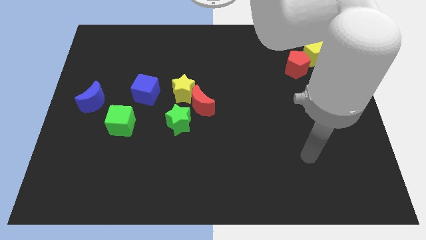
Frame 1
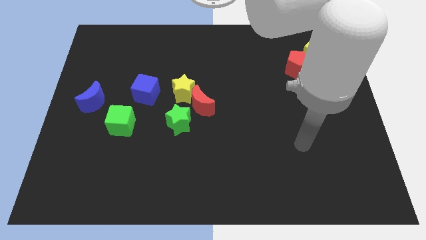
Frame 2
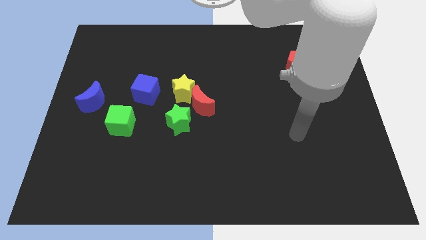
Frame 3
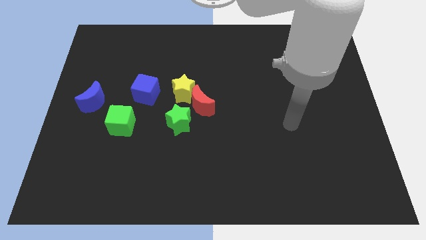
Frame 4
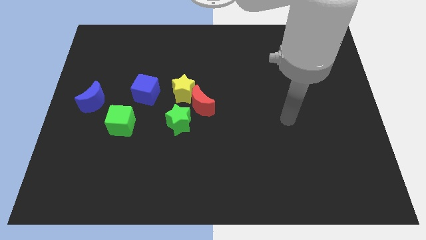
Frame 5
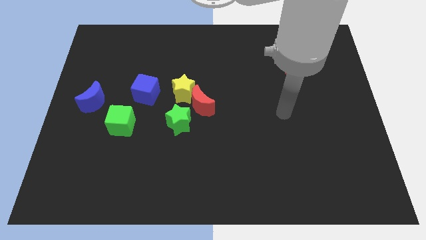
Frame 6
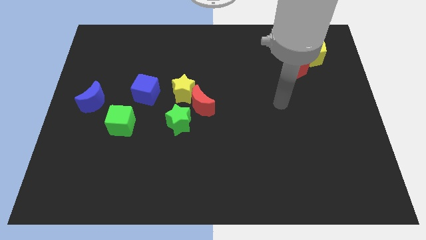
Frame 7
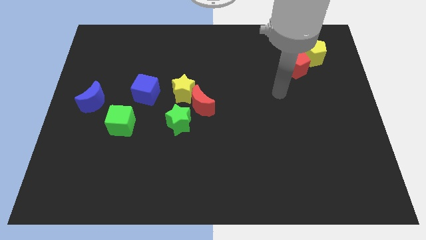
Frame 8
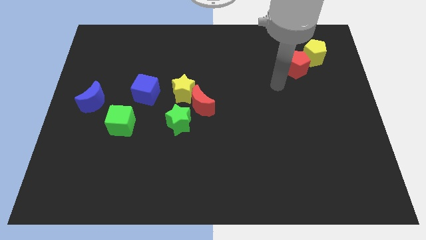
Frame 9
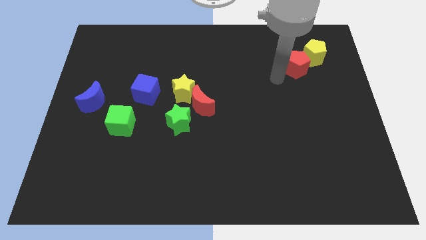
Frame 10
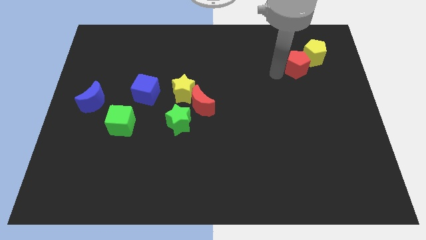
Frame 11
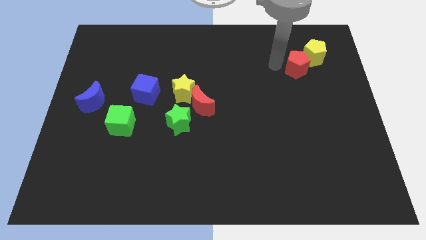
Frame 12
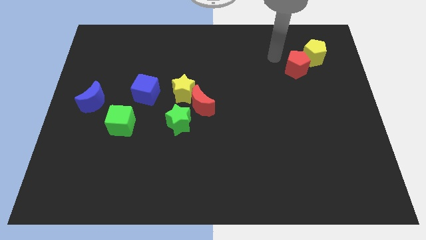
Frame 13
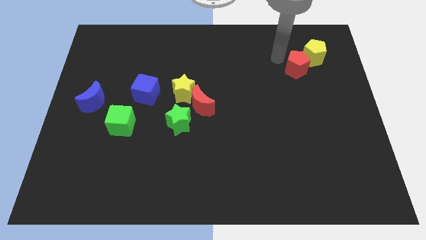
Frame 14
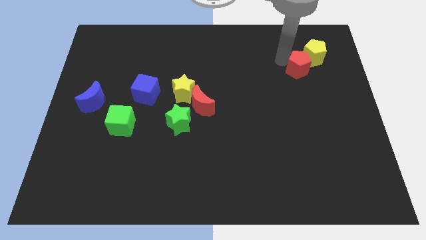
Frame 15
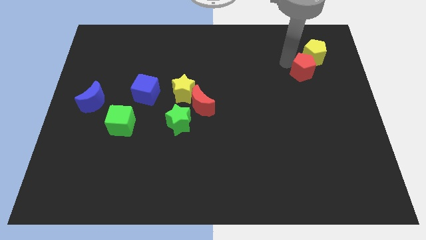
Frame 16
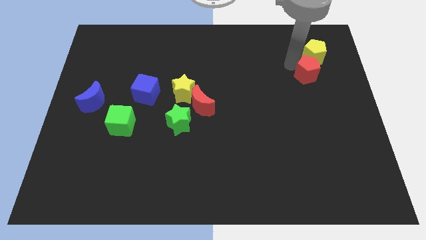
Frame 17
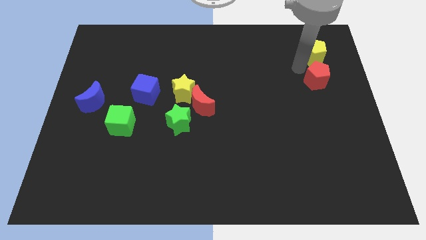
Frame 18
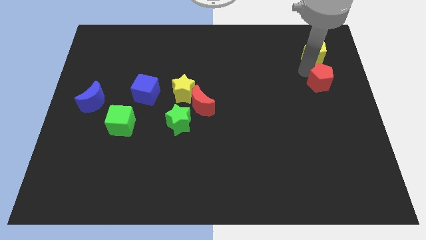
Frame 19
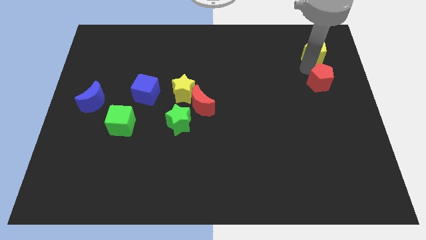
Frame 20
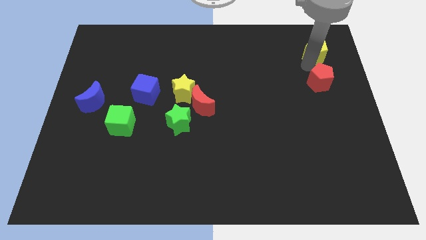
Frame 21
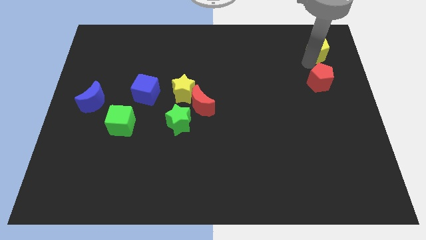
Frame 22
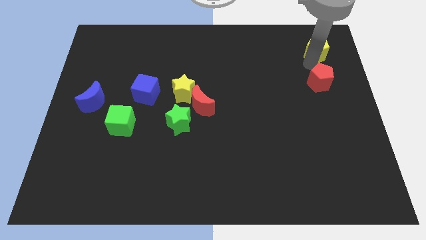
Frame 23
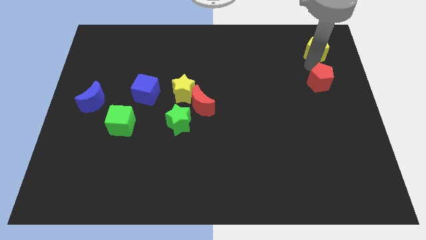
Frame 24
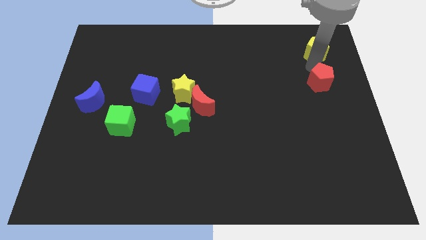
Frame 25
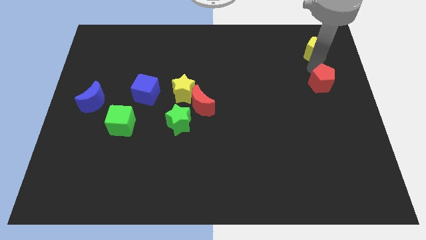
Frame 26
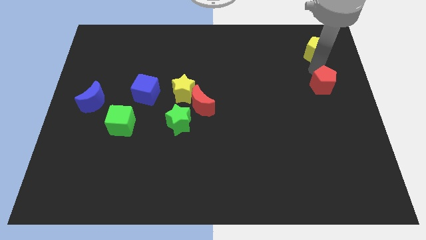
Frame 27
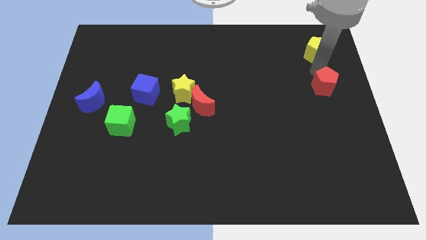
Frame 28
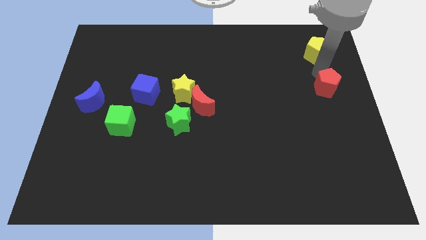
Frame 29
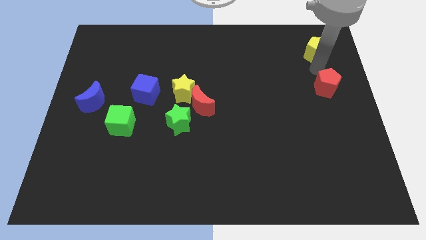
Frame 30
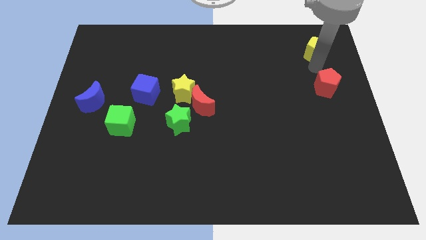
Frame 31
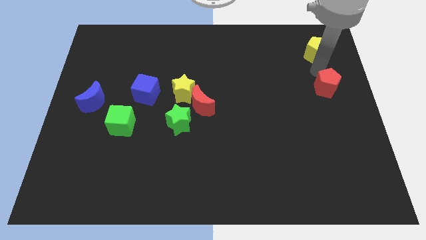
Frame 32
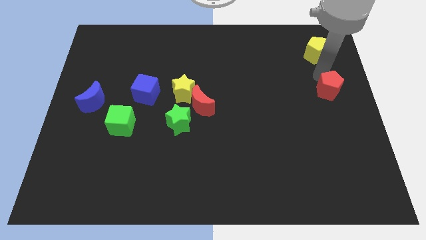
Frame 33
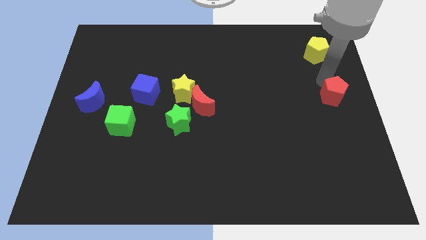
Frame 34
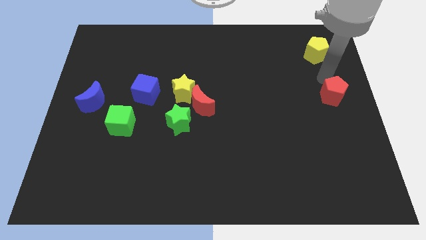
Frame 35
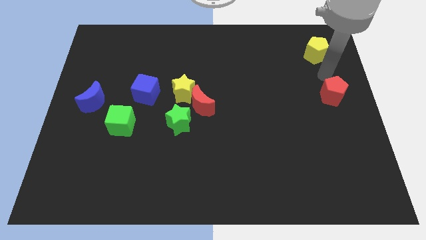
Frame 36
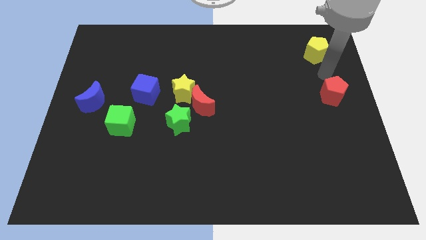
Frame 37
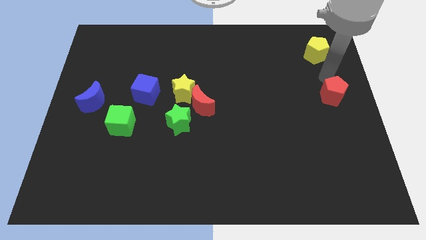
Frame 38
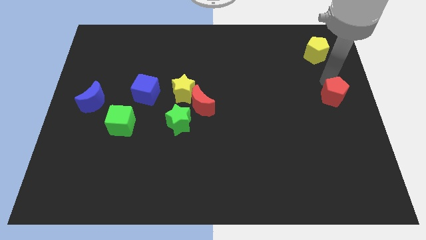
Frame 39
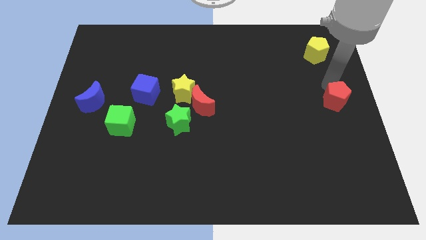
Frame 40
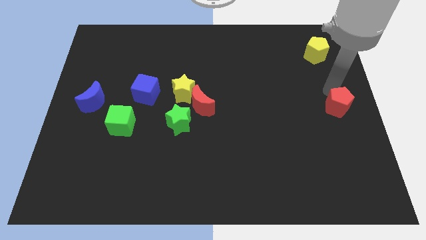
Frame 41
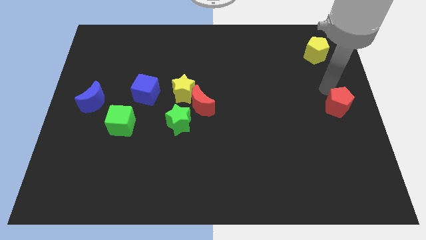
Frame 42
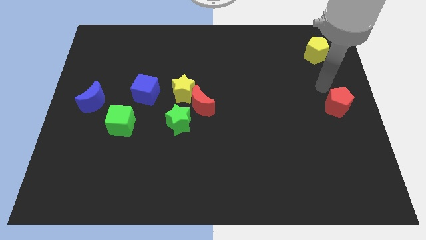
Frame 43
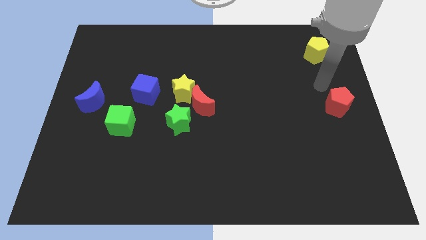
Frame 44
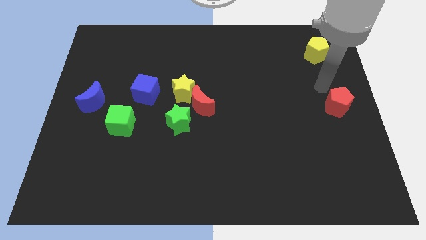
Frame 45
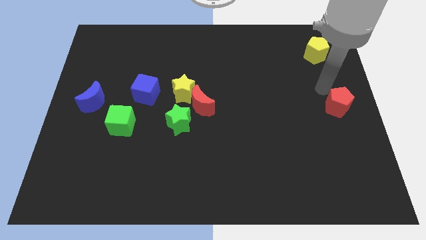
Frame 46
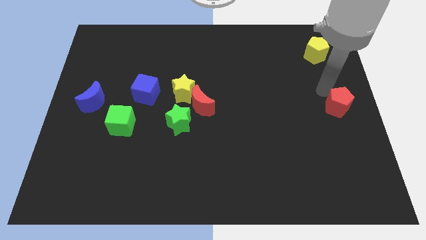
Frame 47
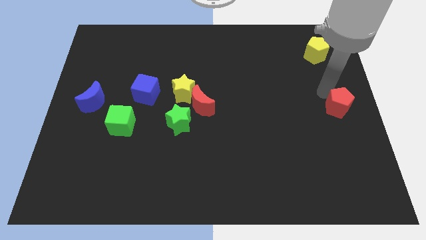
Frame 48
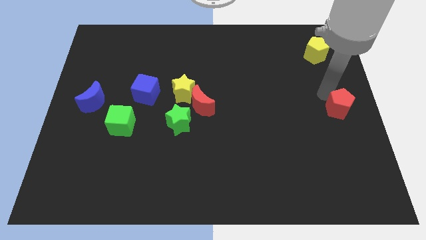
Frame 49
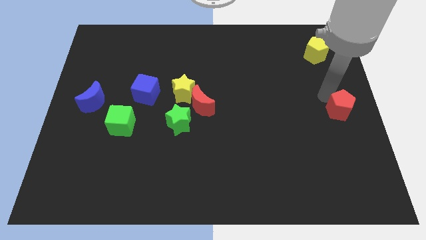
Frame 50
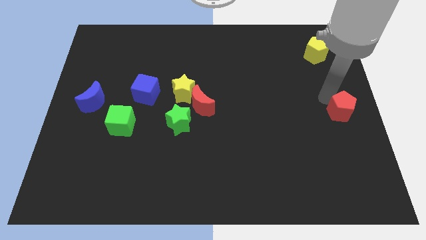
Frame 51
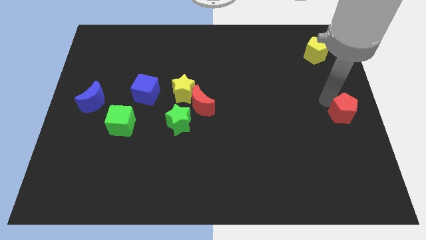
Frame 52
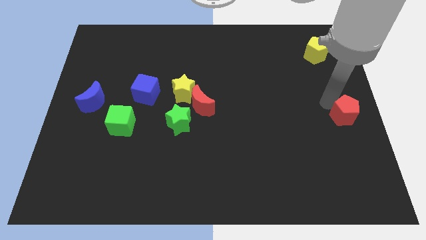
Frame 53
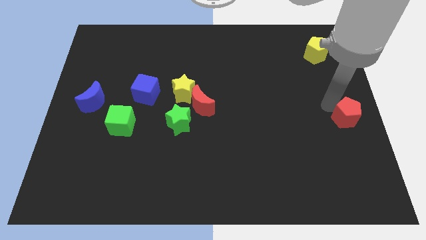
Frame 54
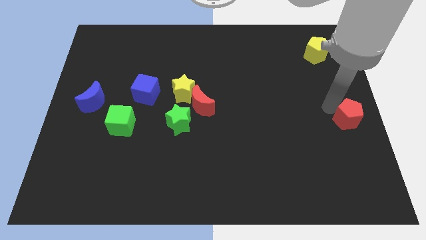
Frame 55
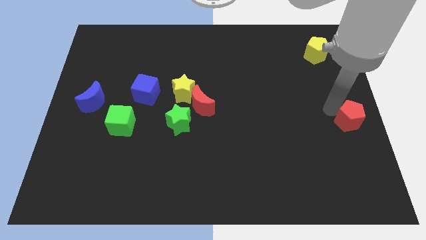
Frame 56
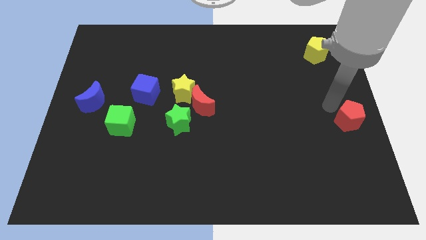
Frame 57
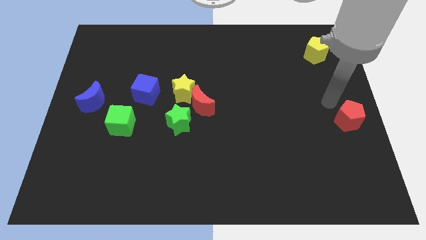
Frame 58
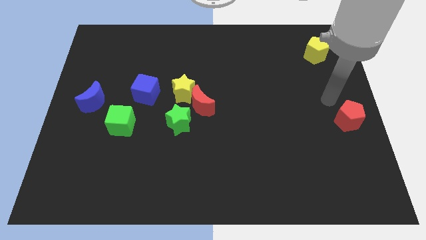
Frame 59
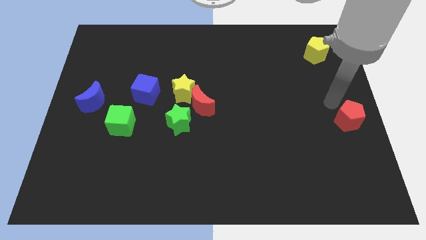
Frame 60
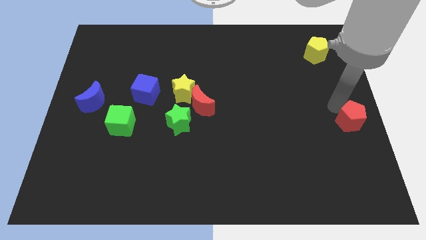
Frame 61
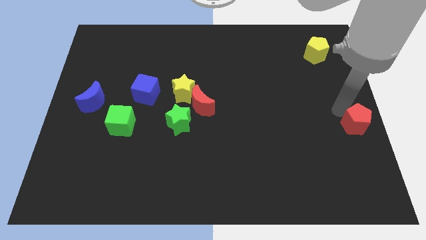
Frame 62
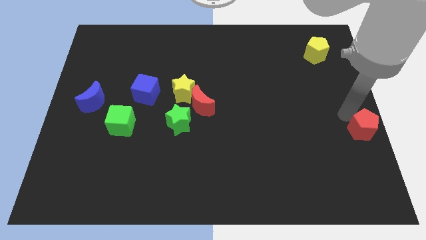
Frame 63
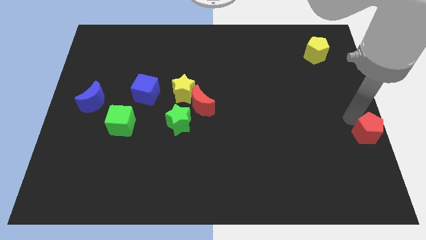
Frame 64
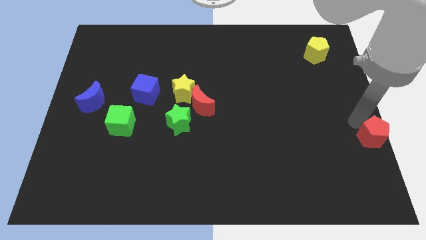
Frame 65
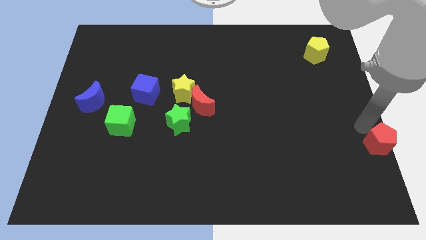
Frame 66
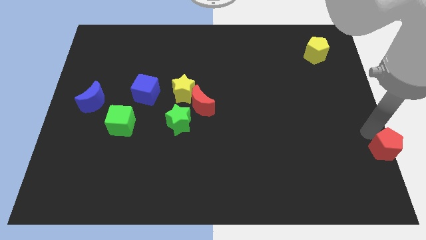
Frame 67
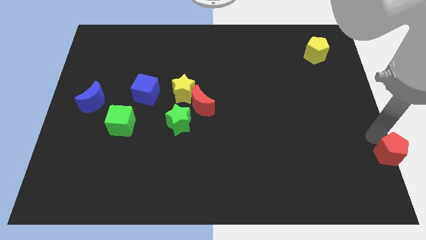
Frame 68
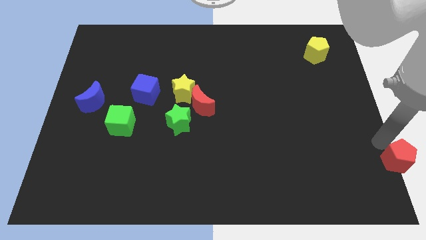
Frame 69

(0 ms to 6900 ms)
push the red pentagon to the bottom right
